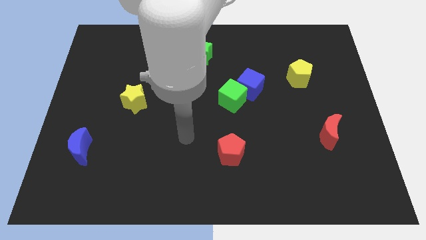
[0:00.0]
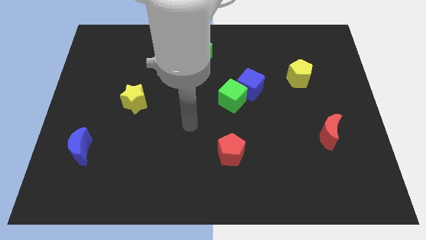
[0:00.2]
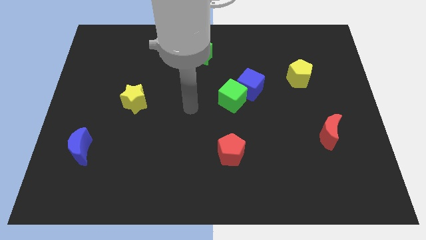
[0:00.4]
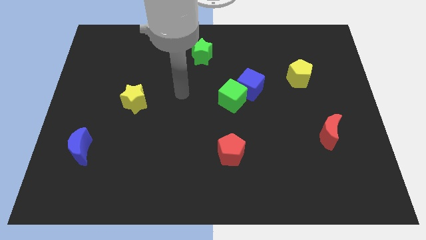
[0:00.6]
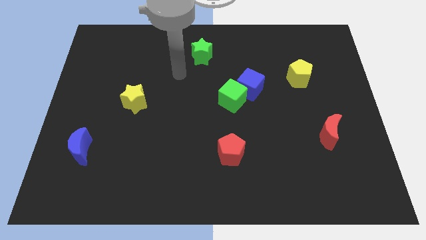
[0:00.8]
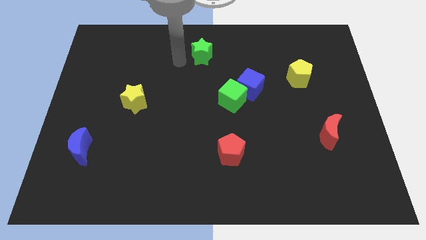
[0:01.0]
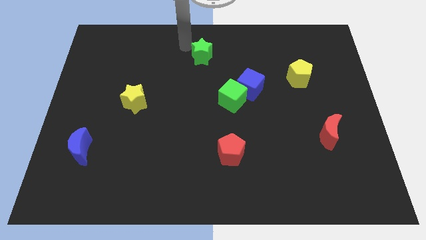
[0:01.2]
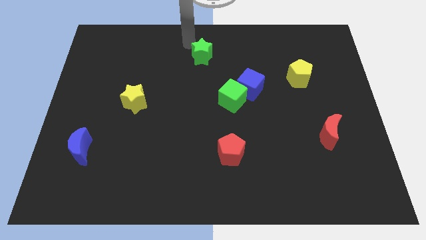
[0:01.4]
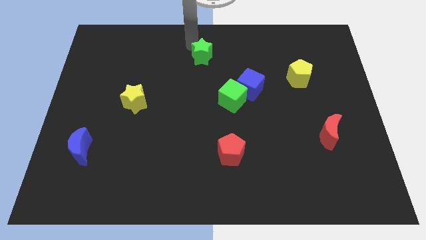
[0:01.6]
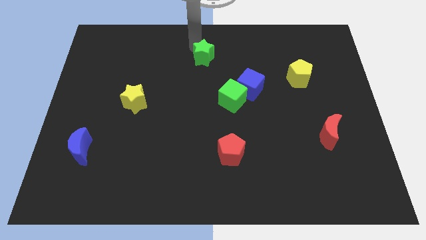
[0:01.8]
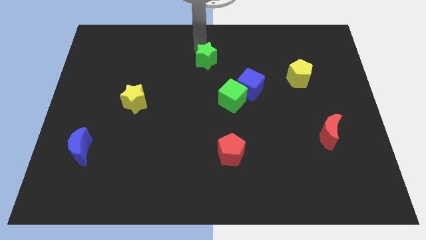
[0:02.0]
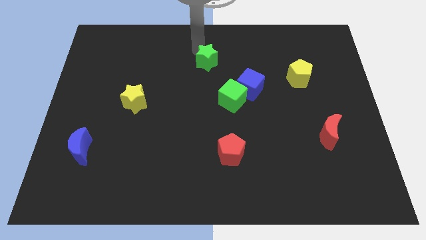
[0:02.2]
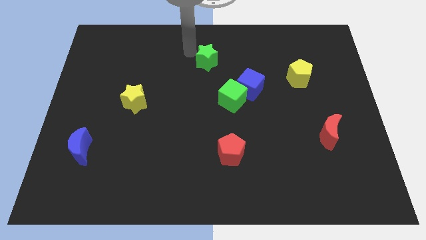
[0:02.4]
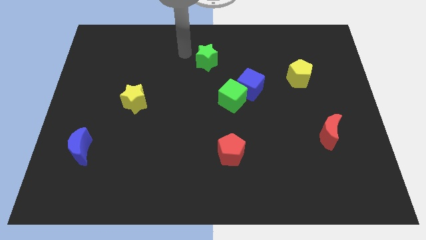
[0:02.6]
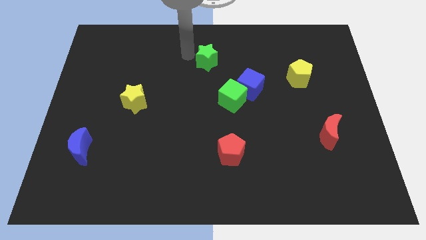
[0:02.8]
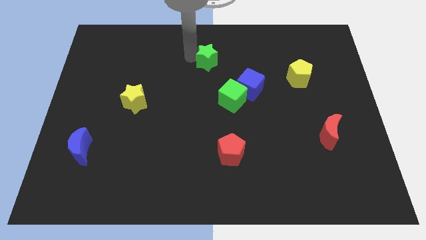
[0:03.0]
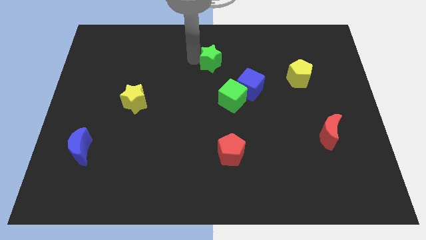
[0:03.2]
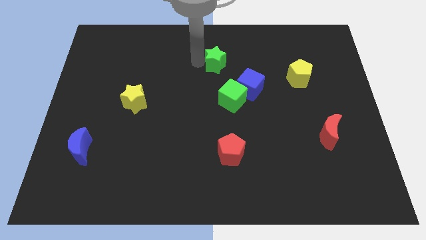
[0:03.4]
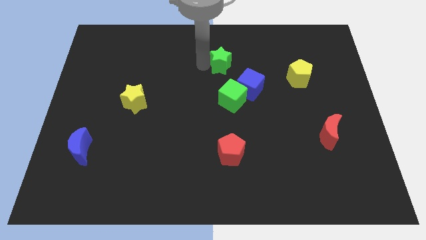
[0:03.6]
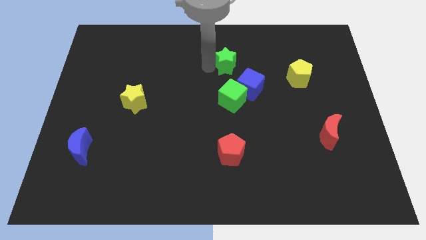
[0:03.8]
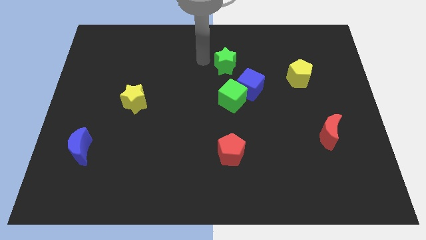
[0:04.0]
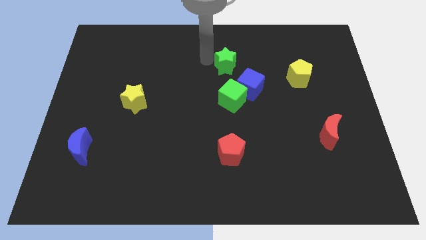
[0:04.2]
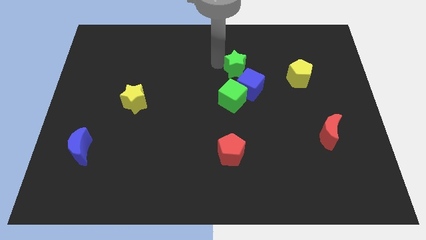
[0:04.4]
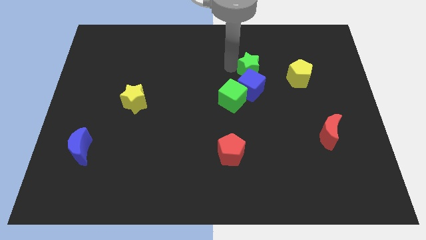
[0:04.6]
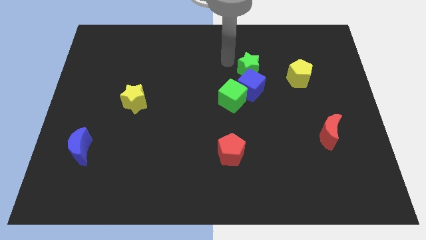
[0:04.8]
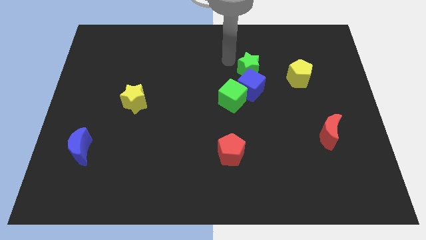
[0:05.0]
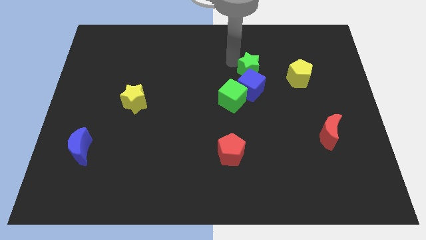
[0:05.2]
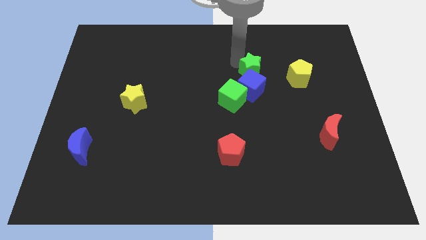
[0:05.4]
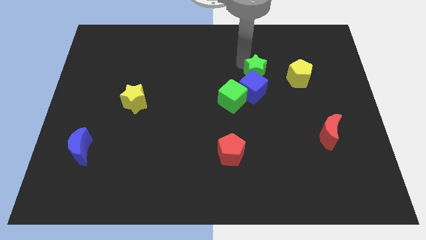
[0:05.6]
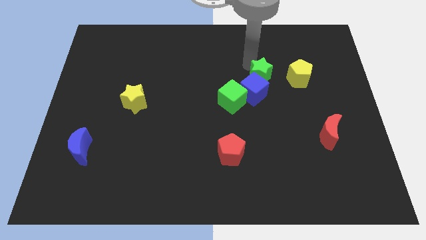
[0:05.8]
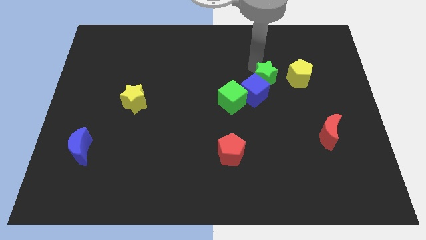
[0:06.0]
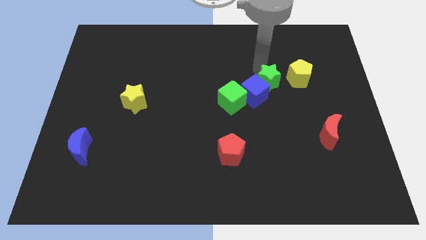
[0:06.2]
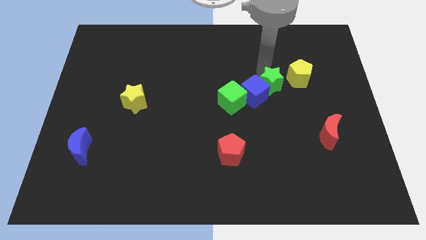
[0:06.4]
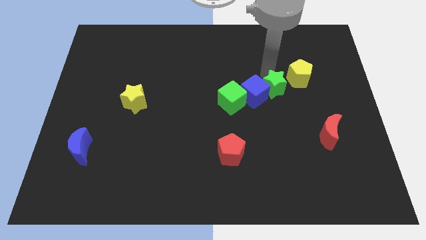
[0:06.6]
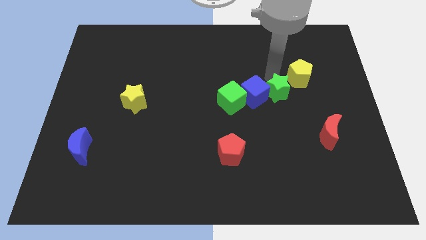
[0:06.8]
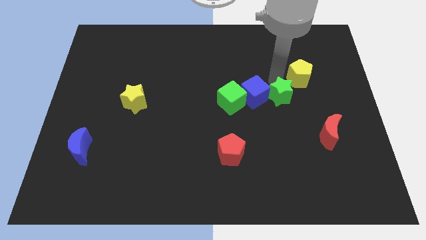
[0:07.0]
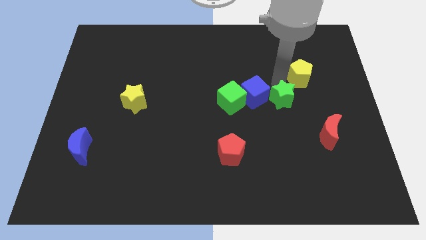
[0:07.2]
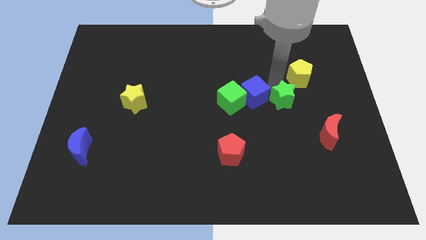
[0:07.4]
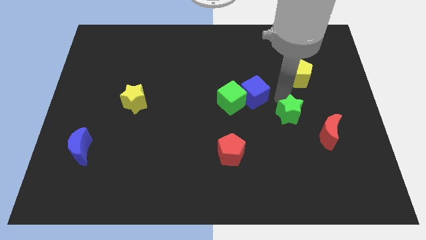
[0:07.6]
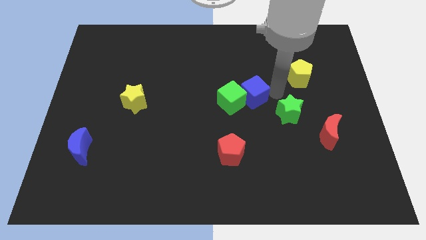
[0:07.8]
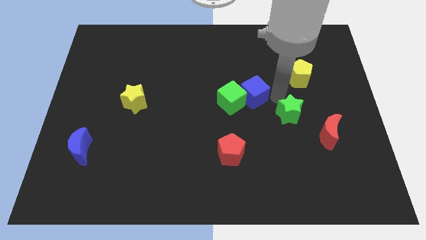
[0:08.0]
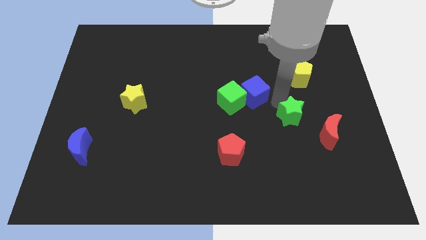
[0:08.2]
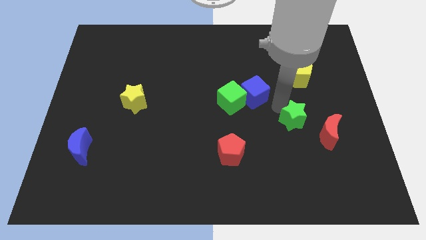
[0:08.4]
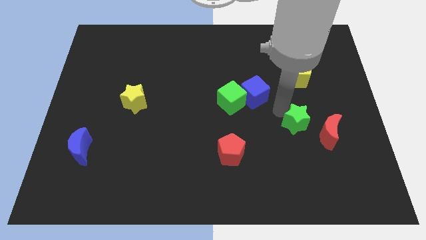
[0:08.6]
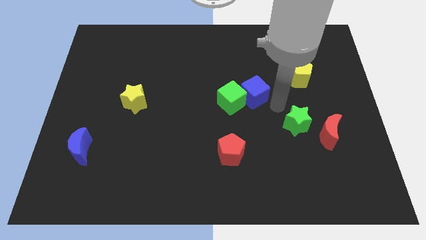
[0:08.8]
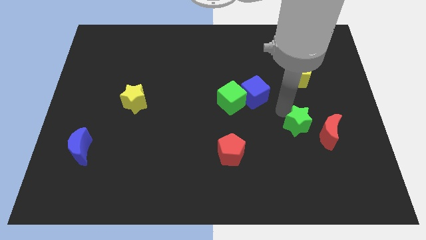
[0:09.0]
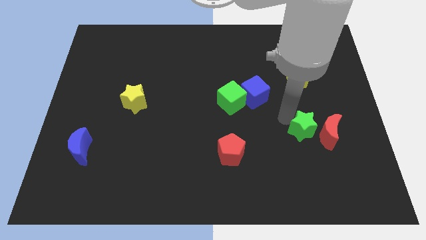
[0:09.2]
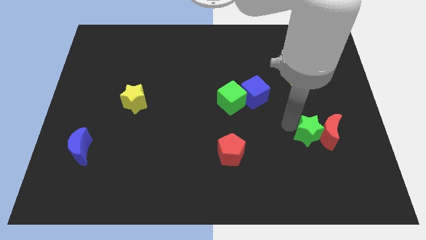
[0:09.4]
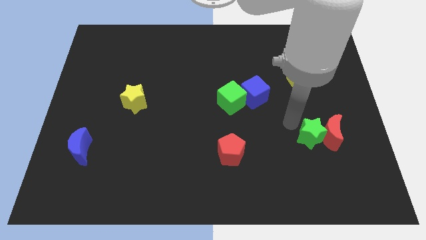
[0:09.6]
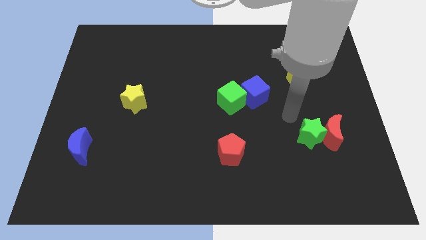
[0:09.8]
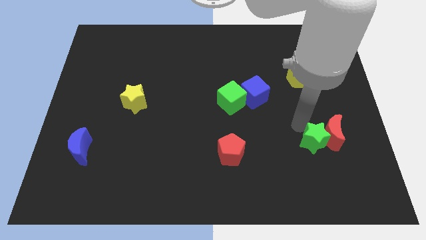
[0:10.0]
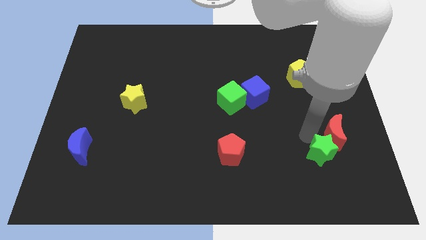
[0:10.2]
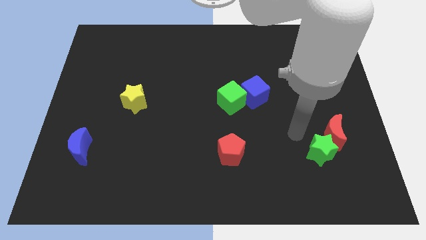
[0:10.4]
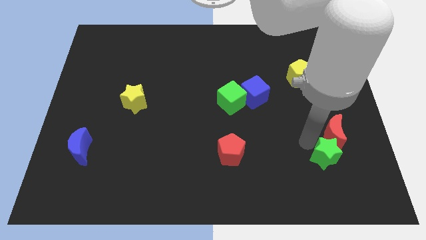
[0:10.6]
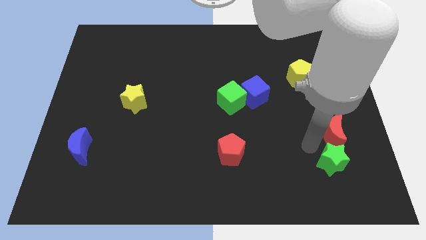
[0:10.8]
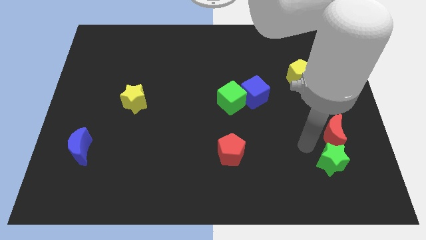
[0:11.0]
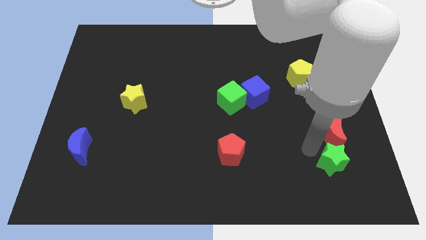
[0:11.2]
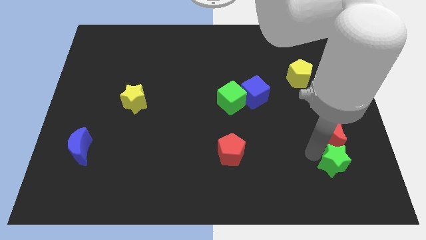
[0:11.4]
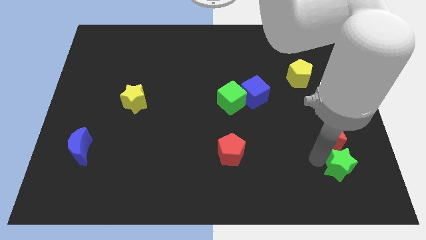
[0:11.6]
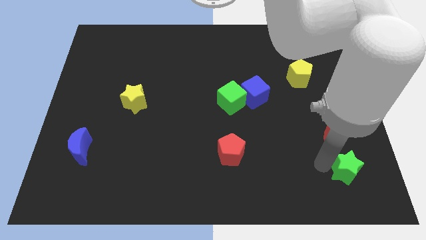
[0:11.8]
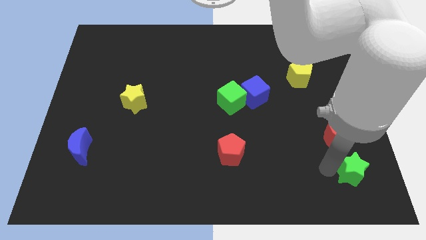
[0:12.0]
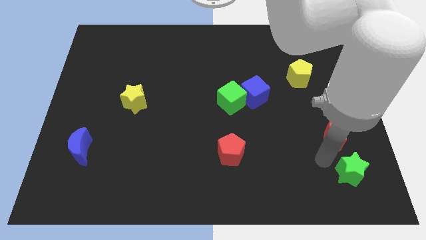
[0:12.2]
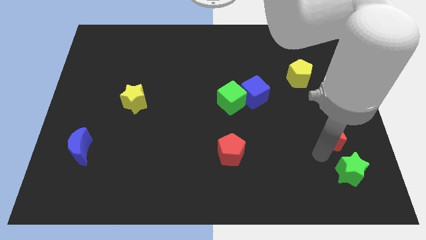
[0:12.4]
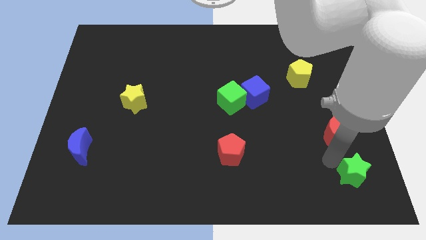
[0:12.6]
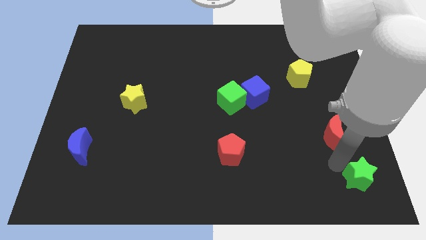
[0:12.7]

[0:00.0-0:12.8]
move the green star to the bottom right
